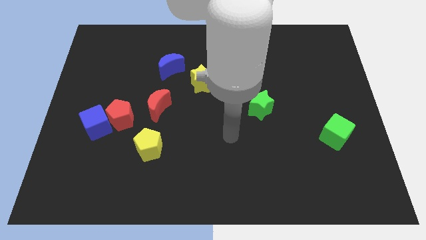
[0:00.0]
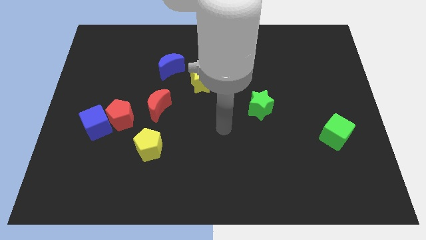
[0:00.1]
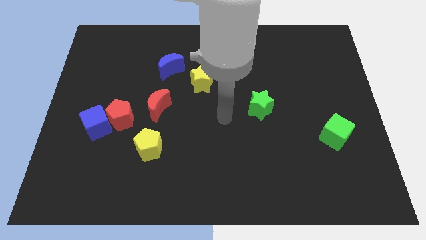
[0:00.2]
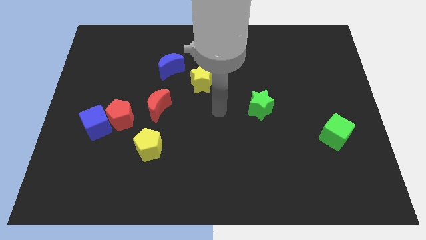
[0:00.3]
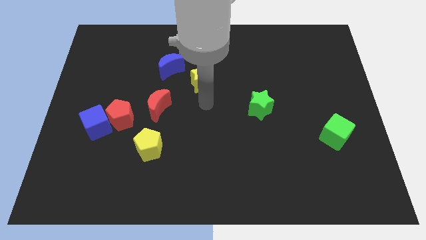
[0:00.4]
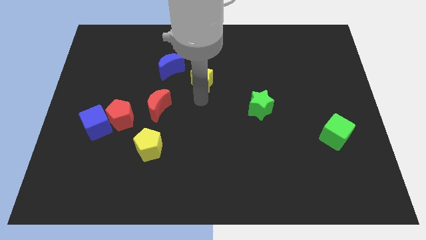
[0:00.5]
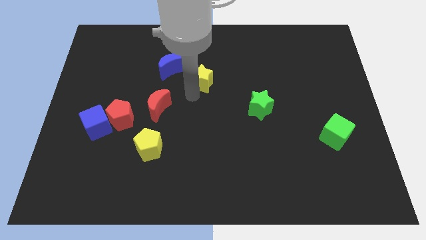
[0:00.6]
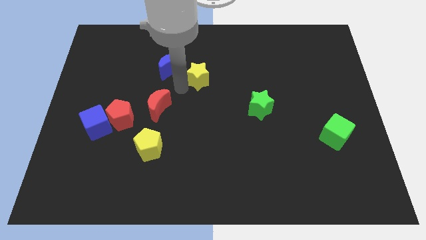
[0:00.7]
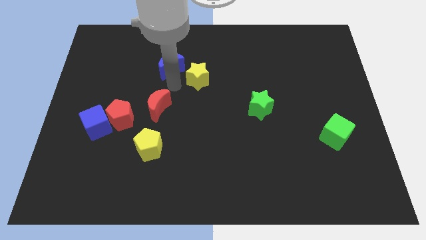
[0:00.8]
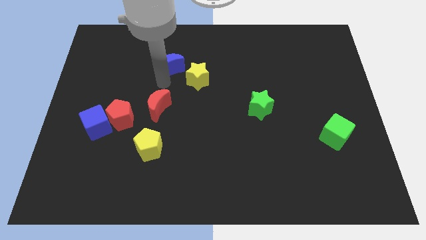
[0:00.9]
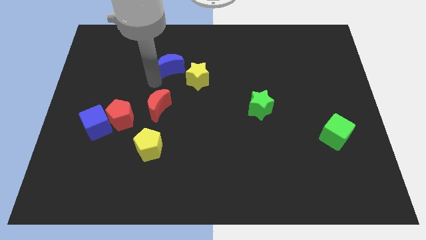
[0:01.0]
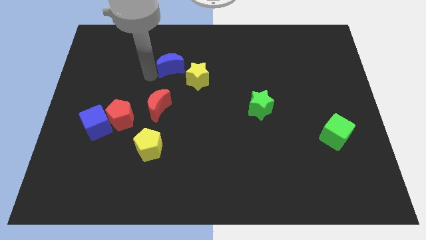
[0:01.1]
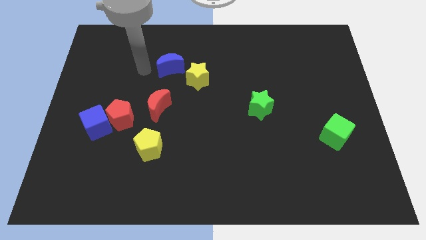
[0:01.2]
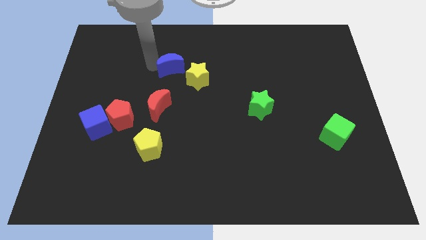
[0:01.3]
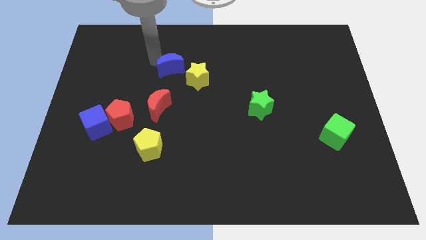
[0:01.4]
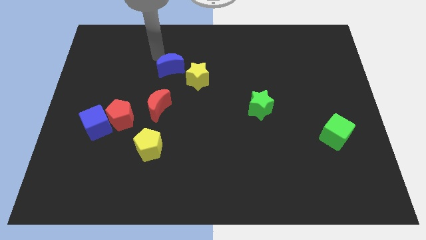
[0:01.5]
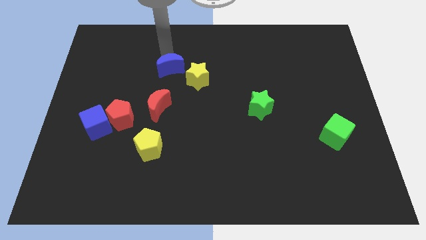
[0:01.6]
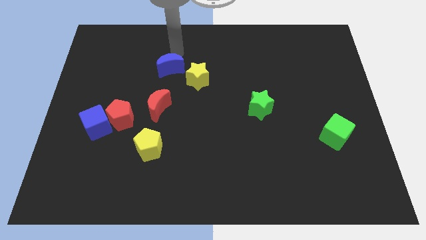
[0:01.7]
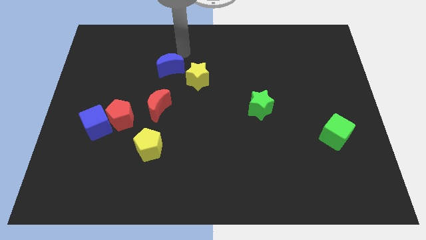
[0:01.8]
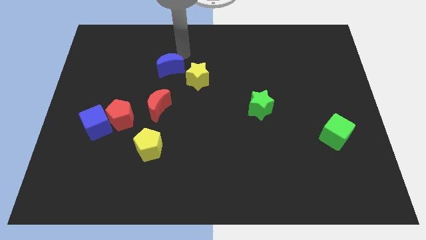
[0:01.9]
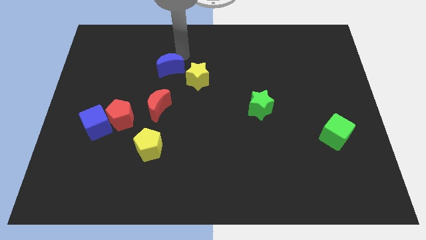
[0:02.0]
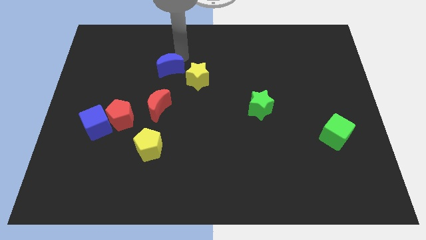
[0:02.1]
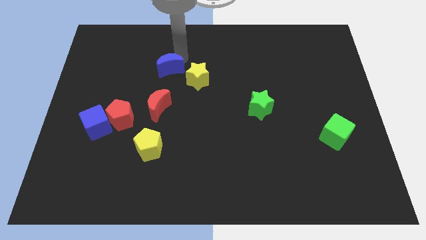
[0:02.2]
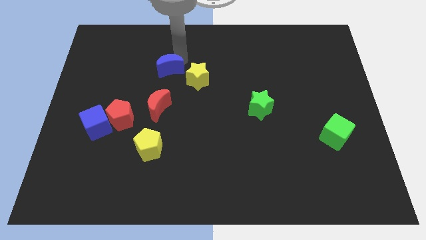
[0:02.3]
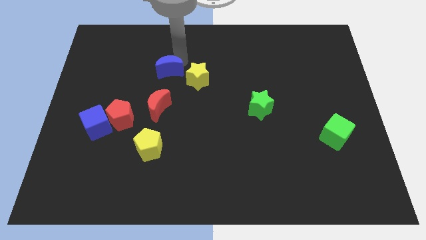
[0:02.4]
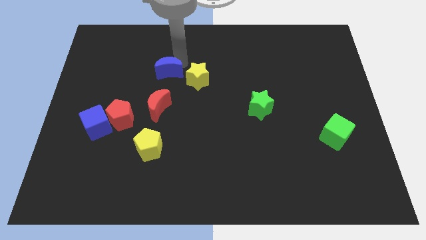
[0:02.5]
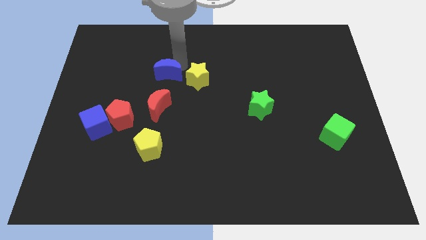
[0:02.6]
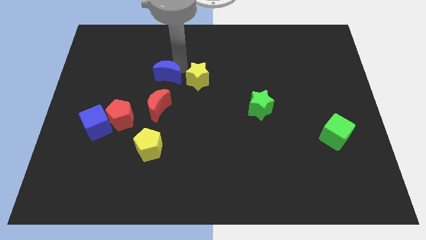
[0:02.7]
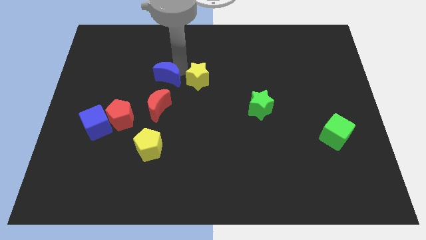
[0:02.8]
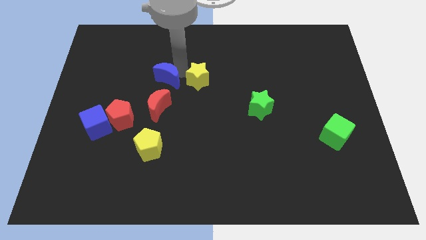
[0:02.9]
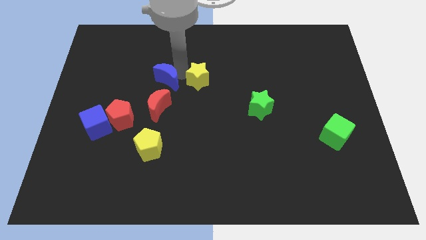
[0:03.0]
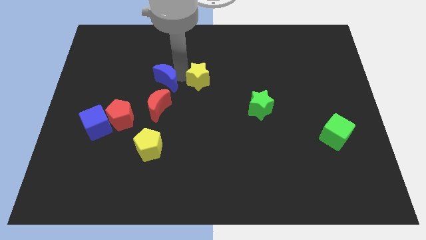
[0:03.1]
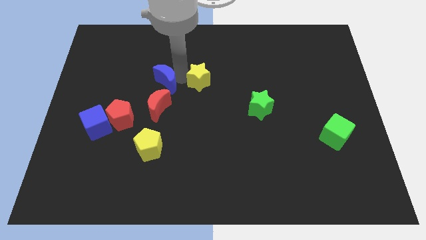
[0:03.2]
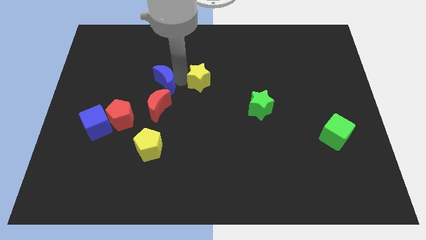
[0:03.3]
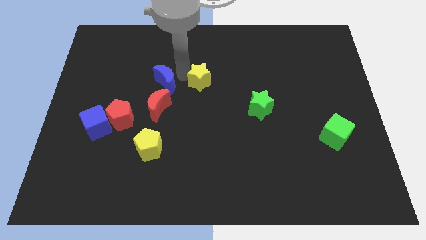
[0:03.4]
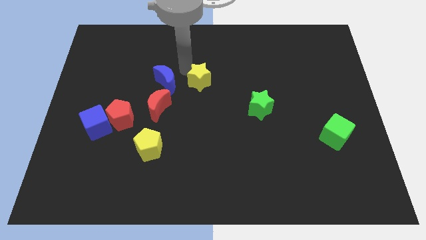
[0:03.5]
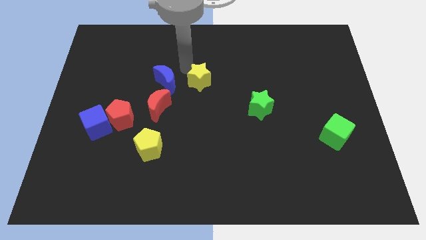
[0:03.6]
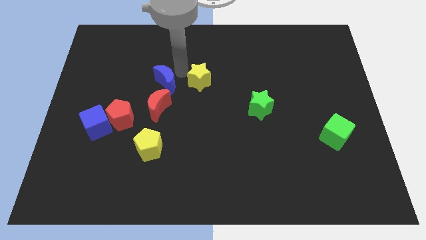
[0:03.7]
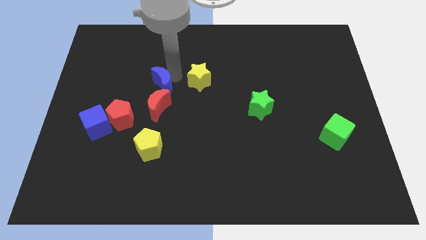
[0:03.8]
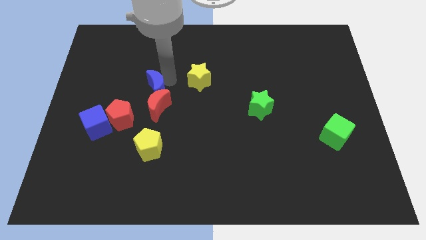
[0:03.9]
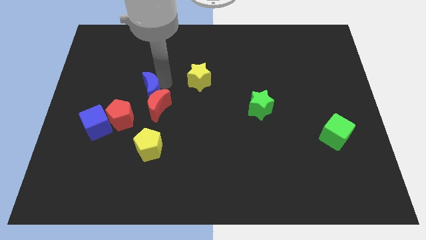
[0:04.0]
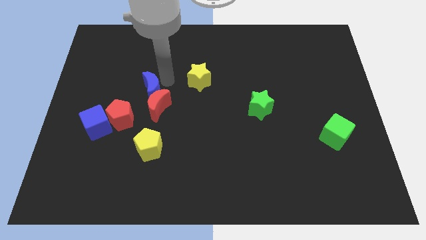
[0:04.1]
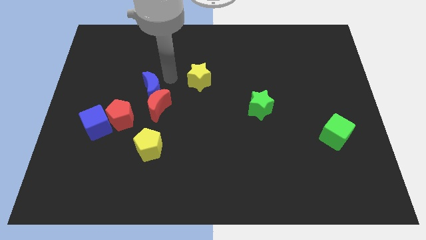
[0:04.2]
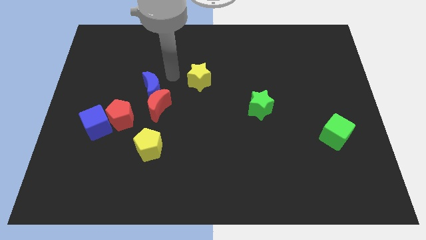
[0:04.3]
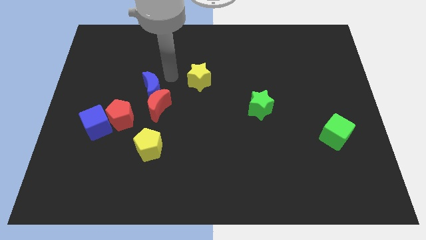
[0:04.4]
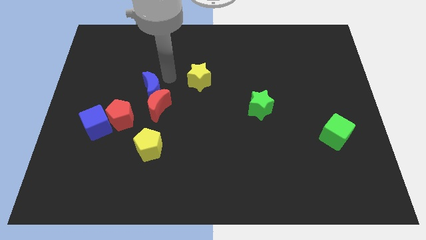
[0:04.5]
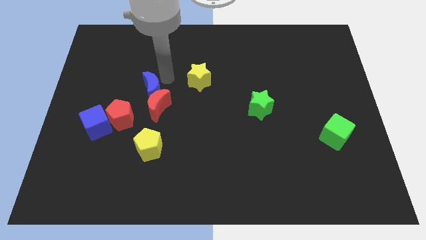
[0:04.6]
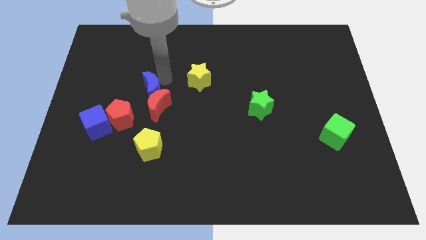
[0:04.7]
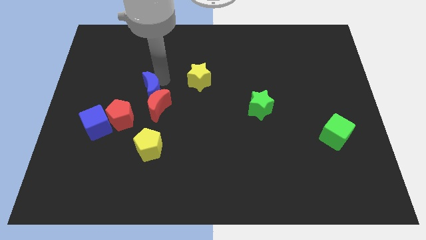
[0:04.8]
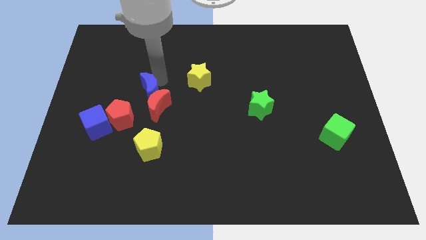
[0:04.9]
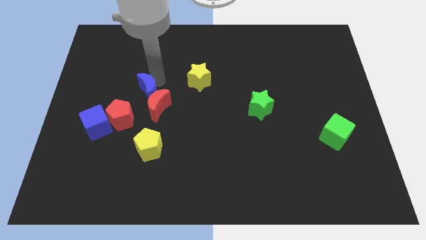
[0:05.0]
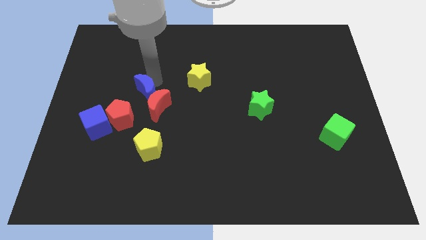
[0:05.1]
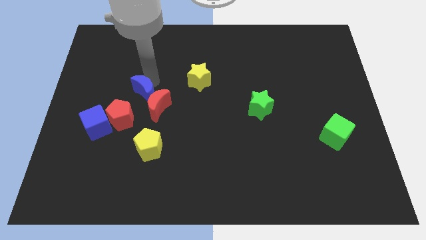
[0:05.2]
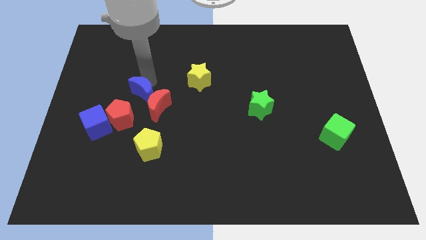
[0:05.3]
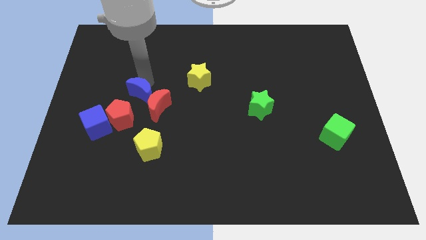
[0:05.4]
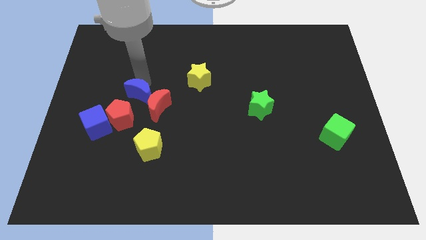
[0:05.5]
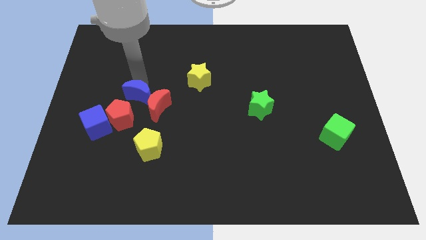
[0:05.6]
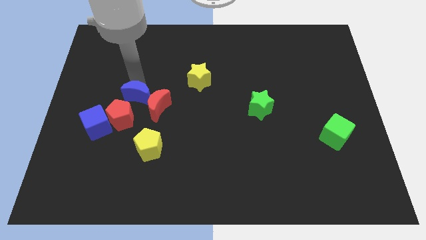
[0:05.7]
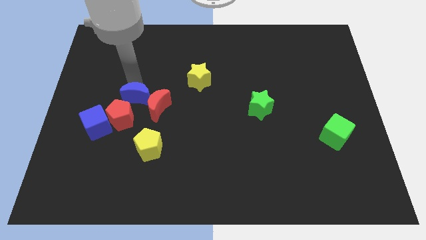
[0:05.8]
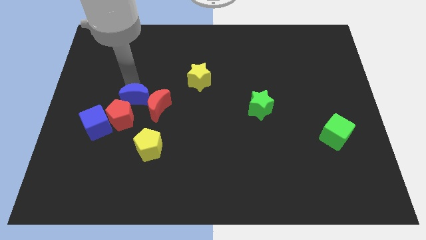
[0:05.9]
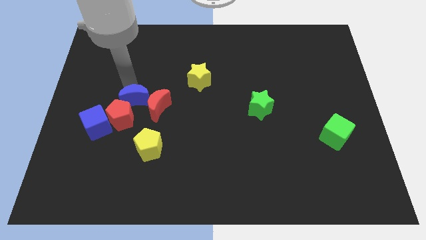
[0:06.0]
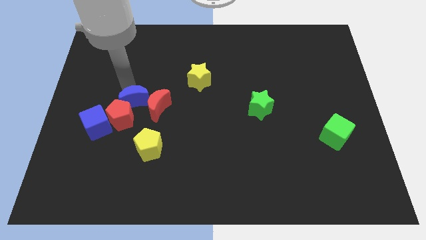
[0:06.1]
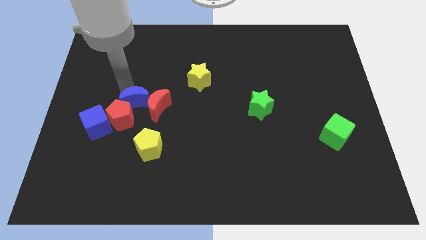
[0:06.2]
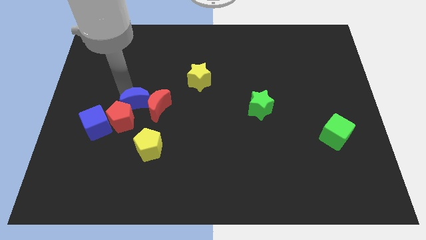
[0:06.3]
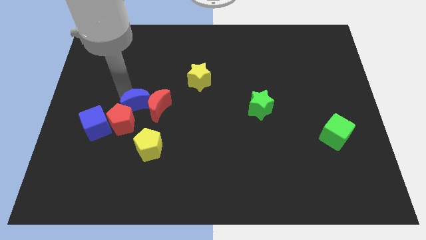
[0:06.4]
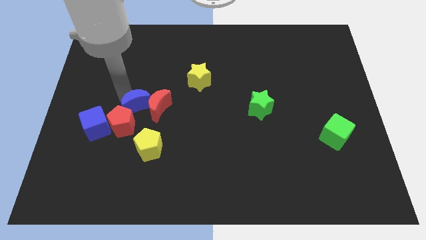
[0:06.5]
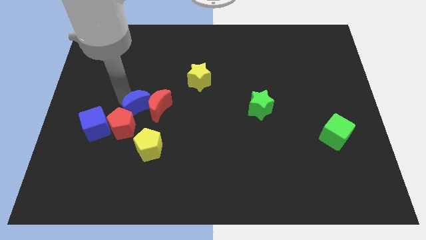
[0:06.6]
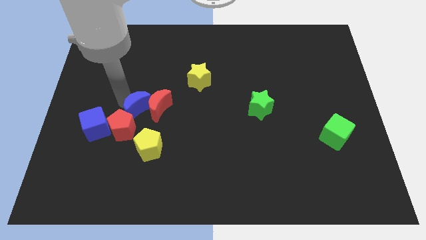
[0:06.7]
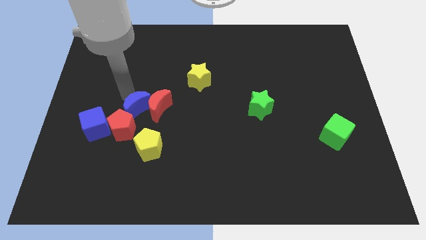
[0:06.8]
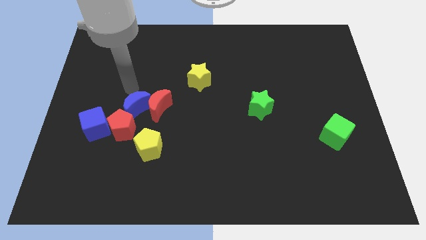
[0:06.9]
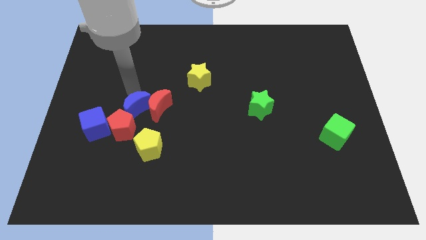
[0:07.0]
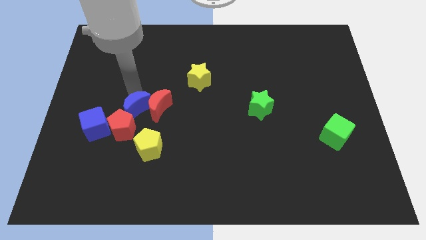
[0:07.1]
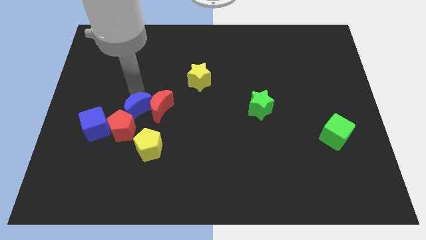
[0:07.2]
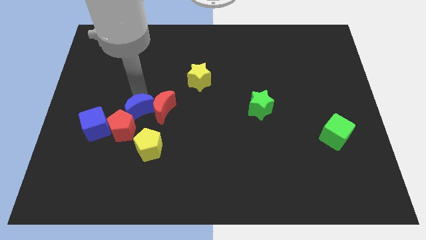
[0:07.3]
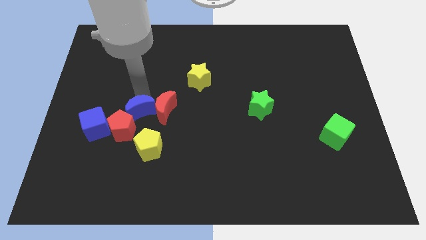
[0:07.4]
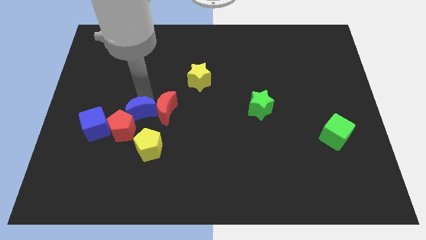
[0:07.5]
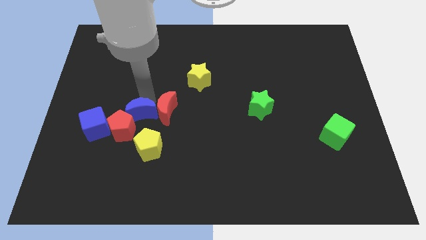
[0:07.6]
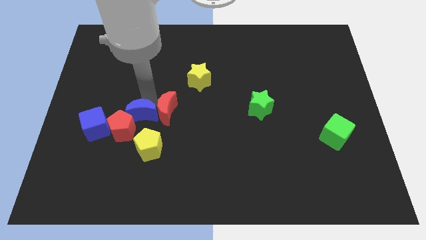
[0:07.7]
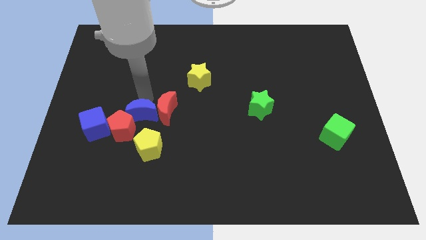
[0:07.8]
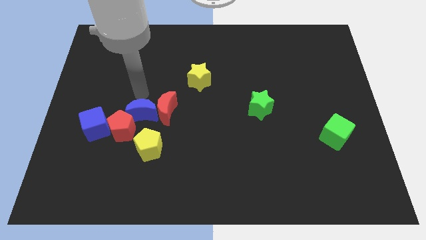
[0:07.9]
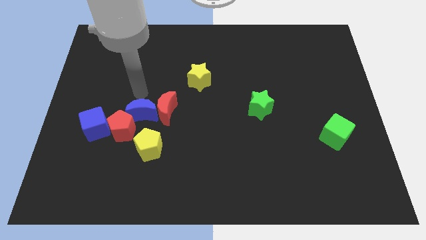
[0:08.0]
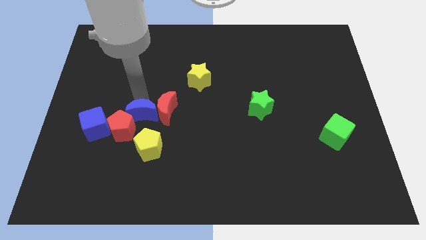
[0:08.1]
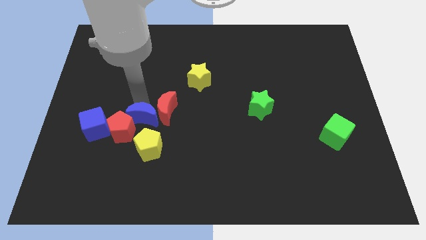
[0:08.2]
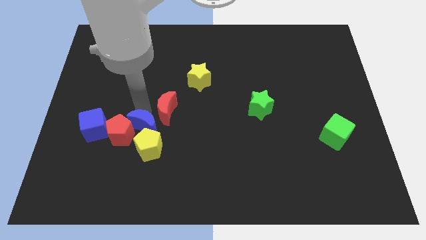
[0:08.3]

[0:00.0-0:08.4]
put the blue moon towards the yellow pentagon
